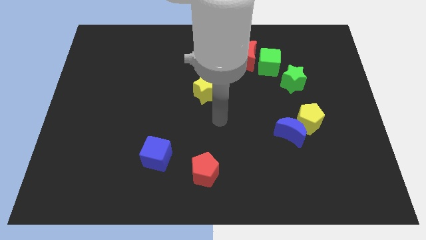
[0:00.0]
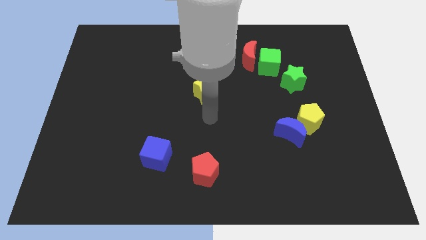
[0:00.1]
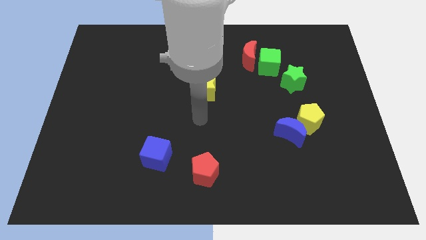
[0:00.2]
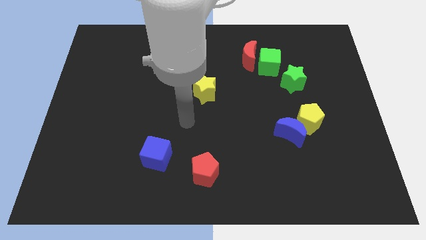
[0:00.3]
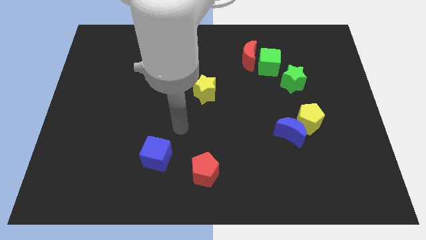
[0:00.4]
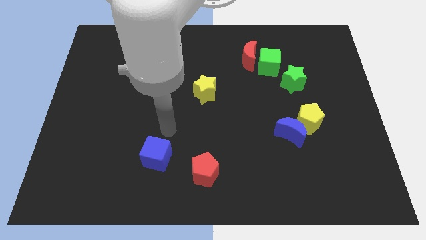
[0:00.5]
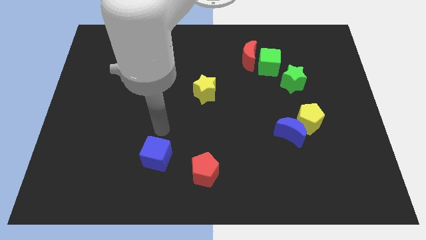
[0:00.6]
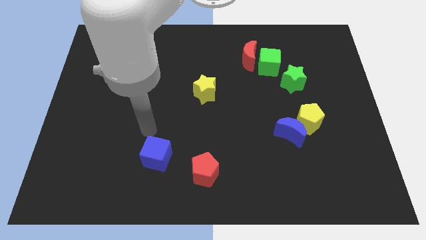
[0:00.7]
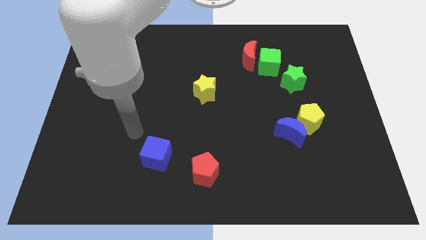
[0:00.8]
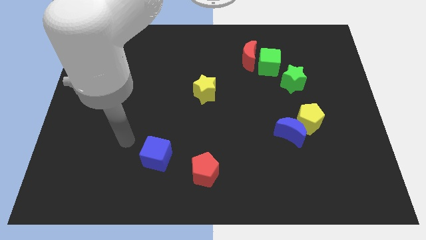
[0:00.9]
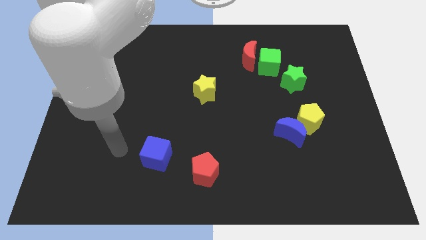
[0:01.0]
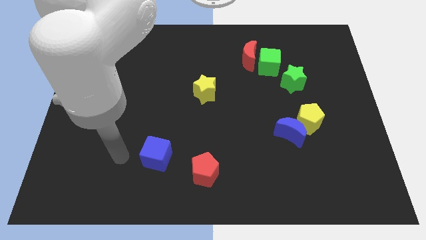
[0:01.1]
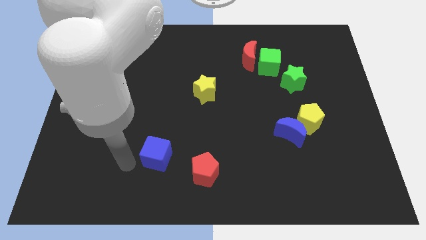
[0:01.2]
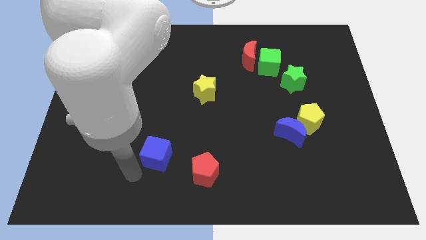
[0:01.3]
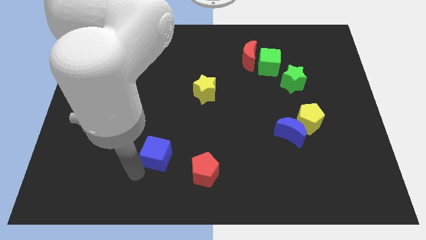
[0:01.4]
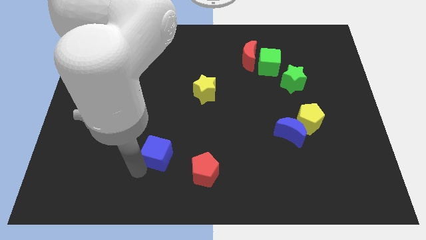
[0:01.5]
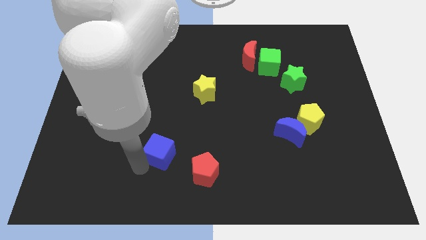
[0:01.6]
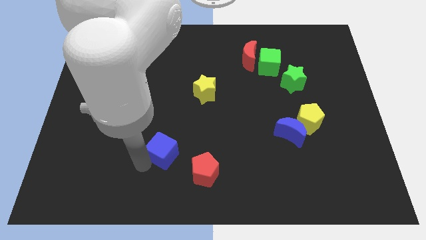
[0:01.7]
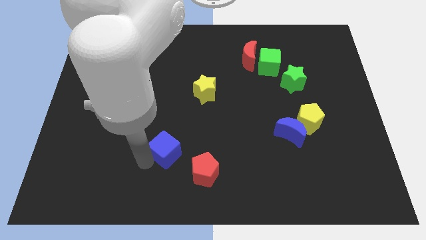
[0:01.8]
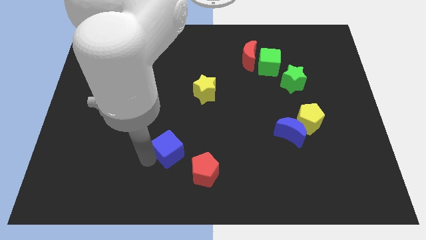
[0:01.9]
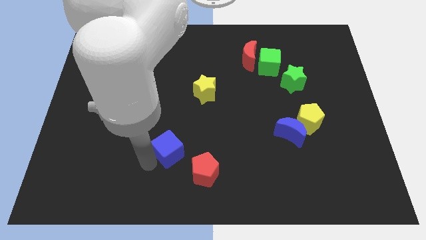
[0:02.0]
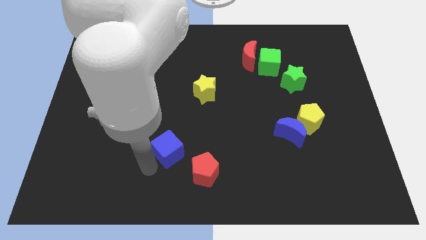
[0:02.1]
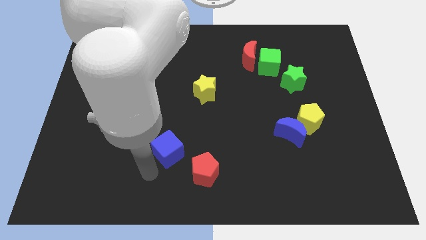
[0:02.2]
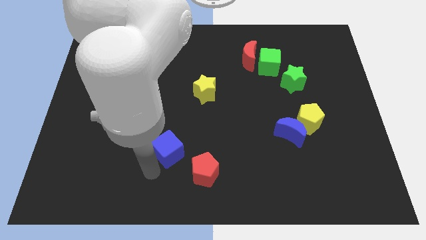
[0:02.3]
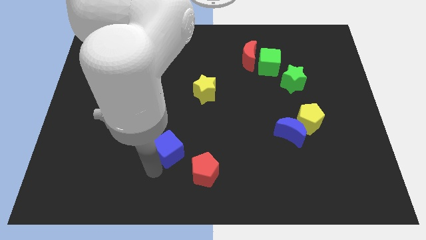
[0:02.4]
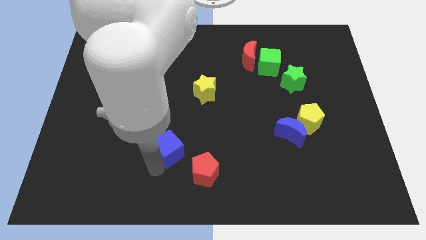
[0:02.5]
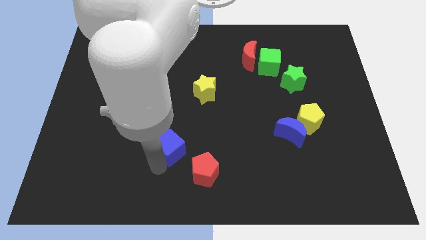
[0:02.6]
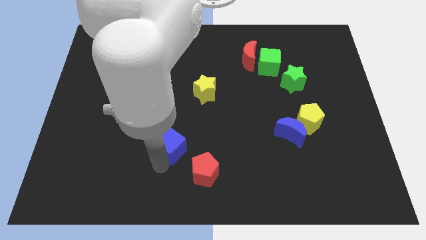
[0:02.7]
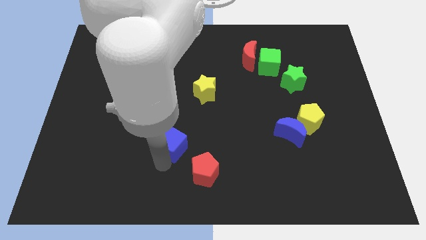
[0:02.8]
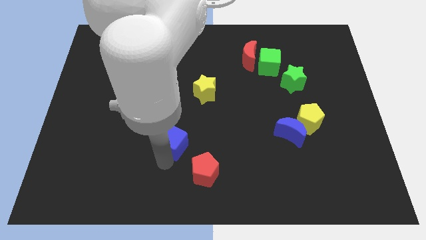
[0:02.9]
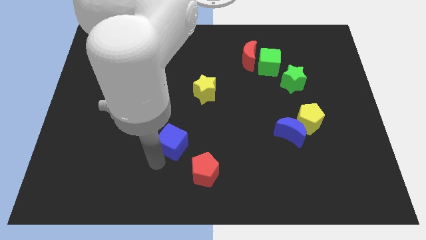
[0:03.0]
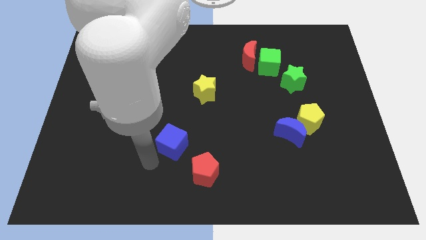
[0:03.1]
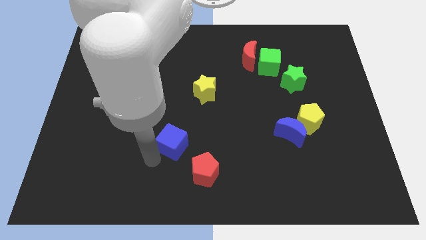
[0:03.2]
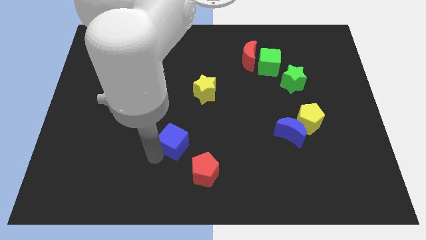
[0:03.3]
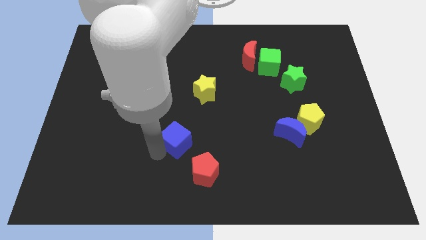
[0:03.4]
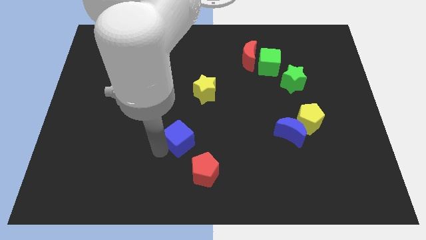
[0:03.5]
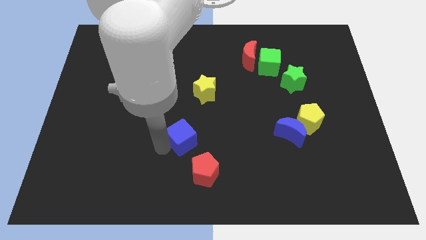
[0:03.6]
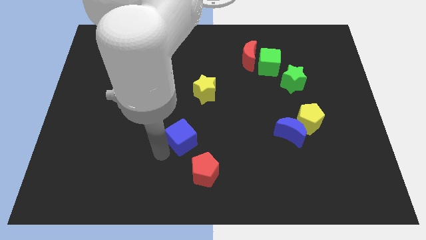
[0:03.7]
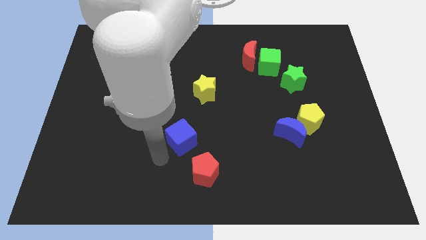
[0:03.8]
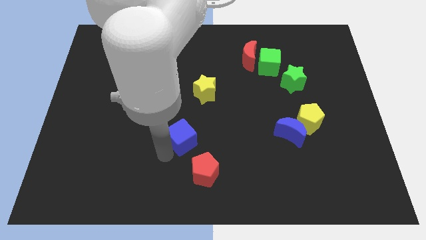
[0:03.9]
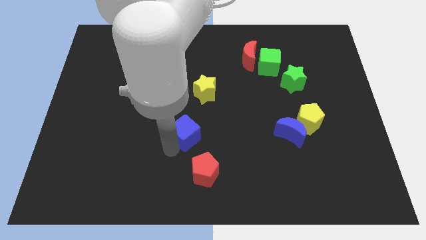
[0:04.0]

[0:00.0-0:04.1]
push the blue cube upwards and right diagonally somewhat

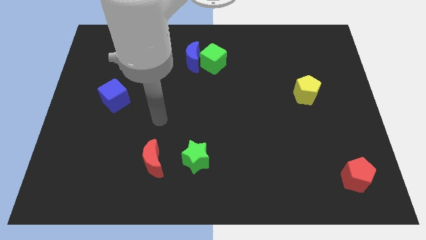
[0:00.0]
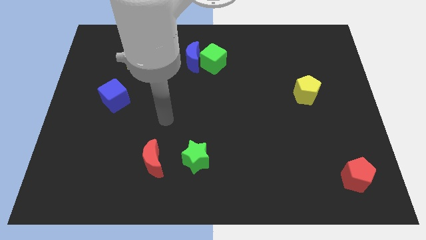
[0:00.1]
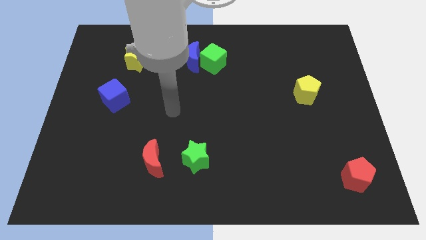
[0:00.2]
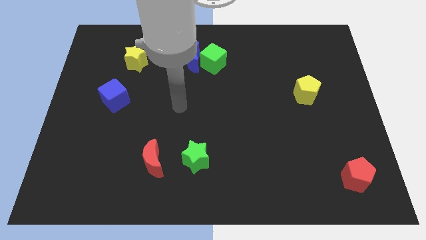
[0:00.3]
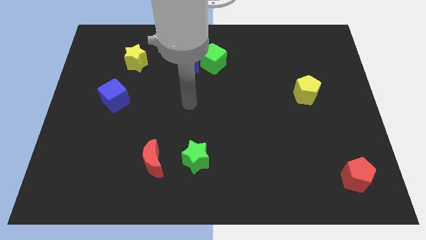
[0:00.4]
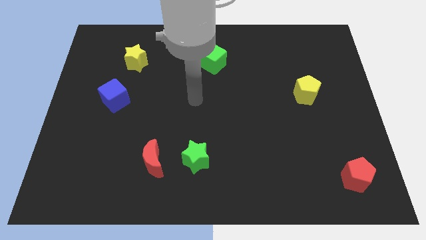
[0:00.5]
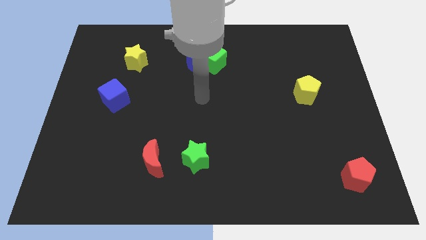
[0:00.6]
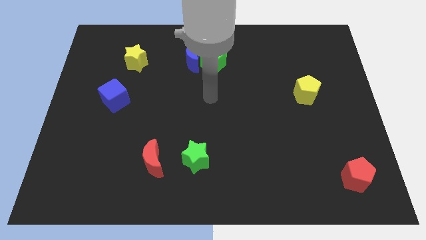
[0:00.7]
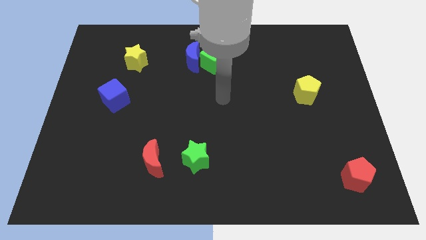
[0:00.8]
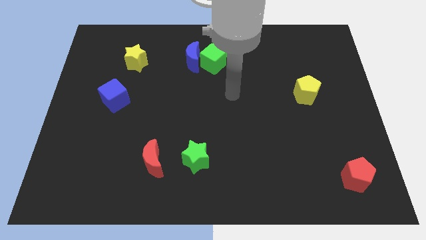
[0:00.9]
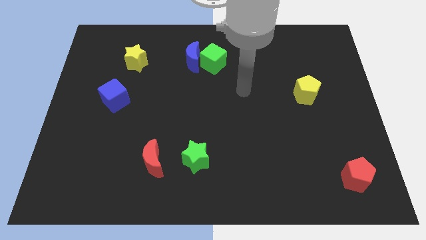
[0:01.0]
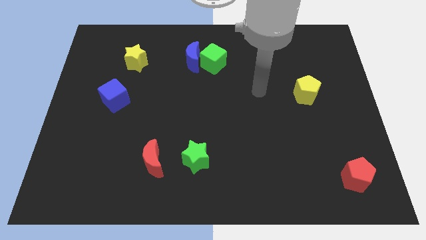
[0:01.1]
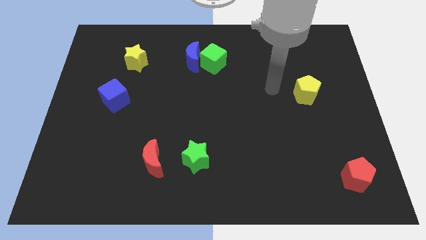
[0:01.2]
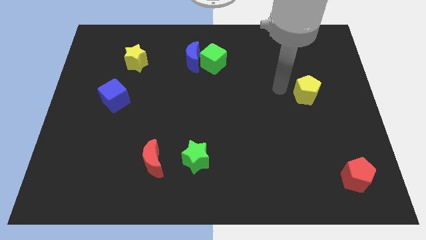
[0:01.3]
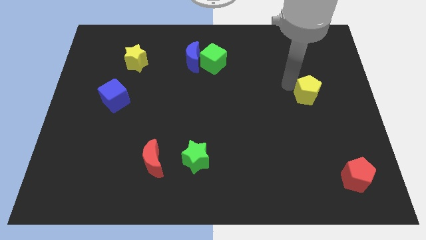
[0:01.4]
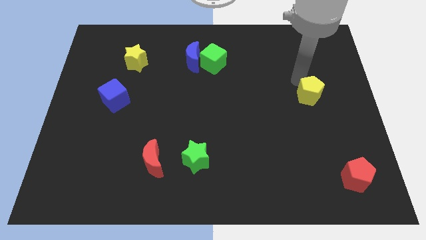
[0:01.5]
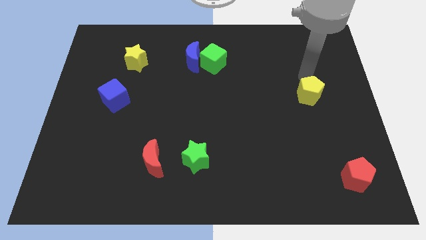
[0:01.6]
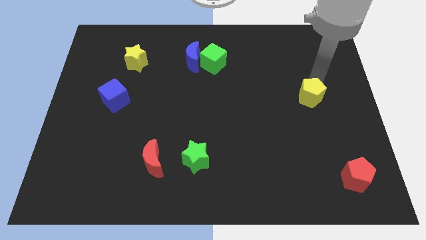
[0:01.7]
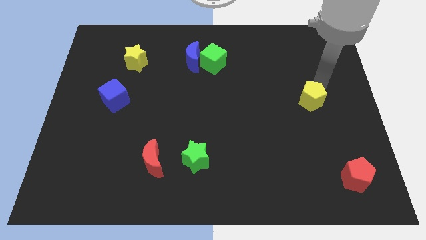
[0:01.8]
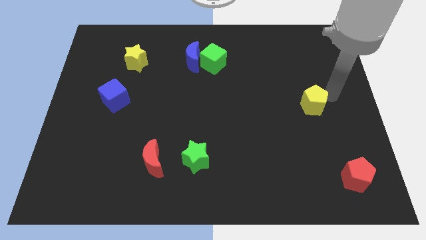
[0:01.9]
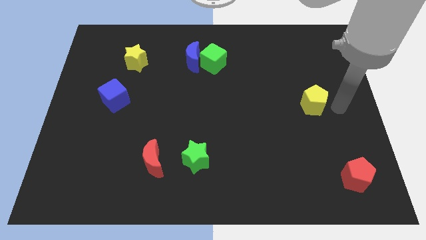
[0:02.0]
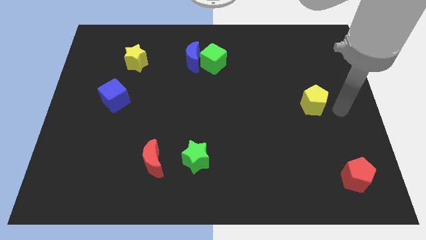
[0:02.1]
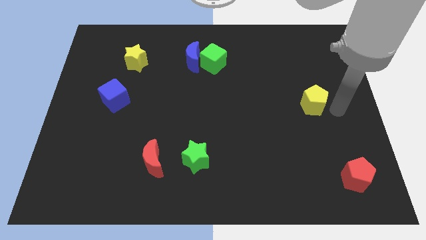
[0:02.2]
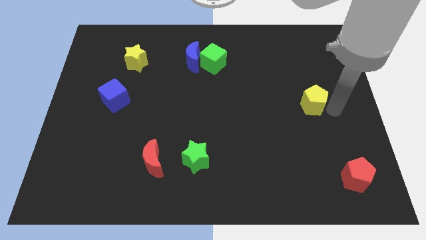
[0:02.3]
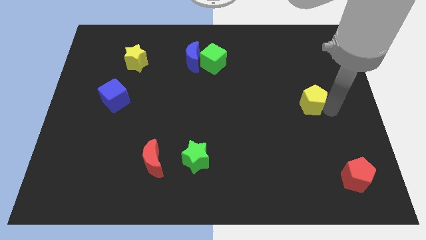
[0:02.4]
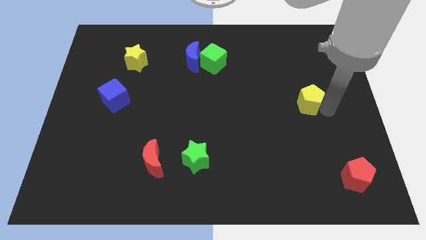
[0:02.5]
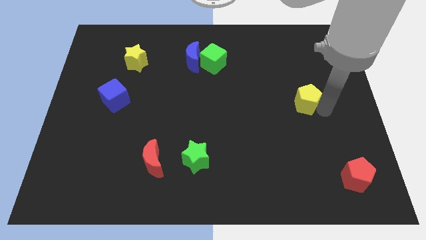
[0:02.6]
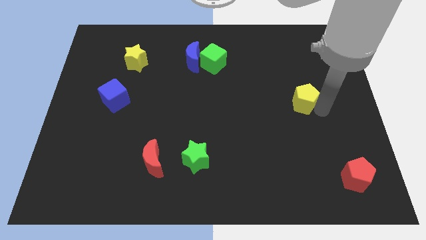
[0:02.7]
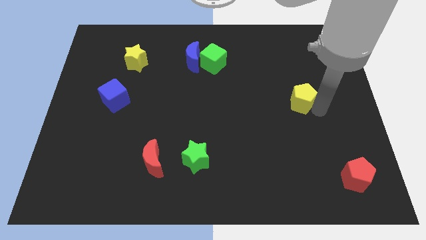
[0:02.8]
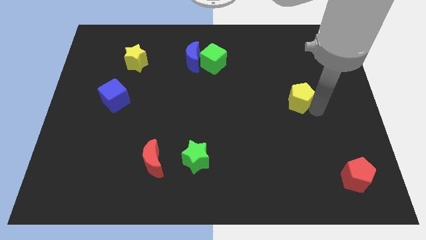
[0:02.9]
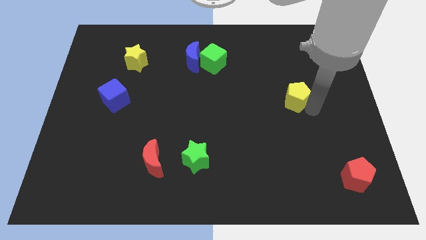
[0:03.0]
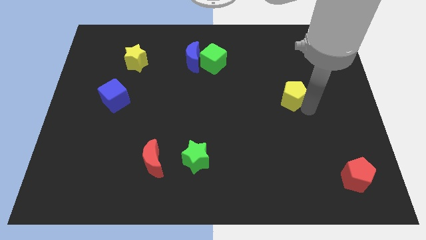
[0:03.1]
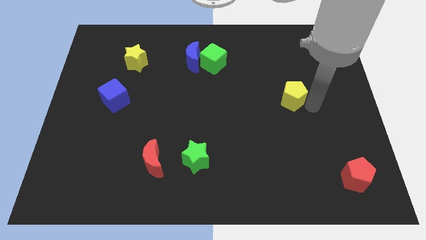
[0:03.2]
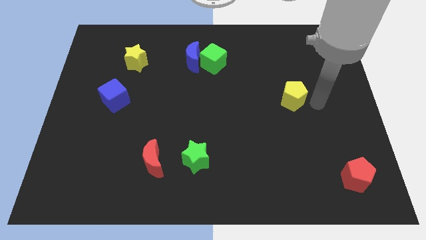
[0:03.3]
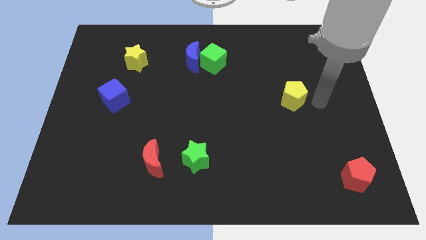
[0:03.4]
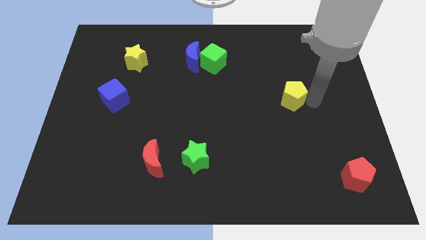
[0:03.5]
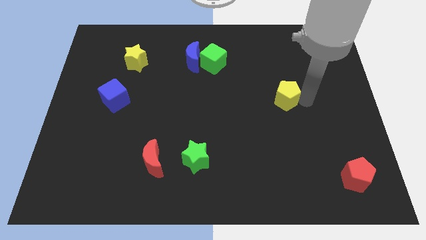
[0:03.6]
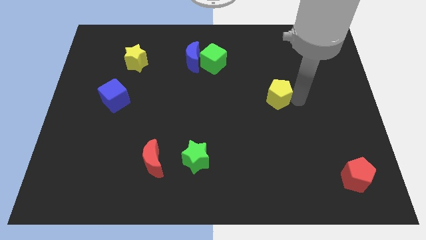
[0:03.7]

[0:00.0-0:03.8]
slide the yellow pentagon to the left slightly
